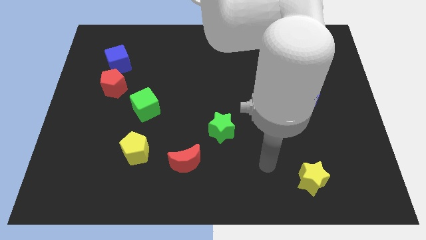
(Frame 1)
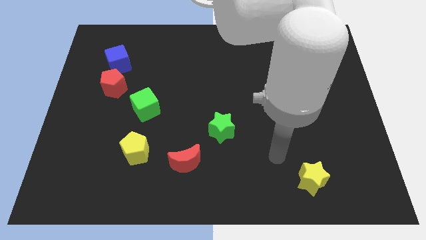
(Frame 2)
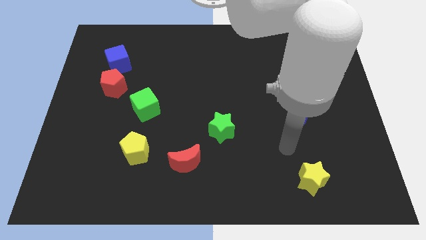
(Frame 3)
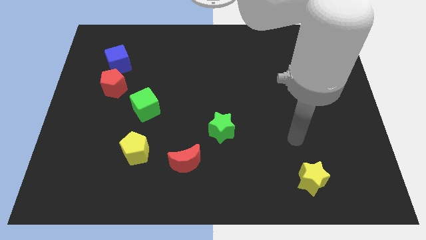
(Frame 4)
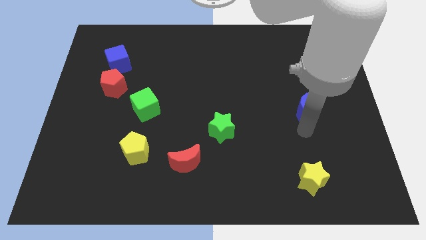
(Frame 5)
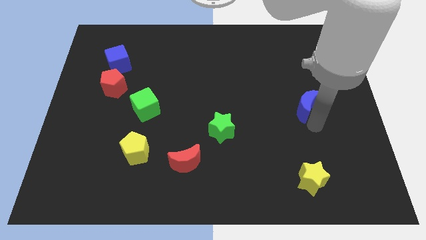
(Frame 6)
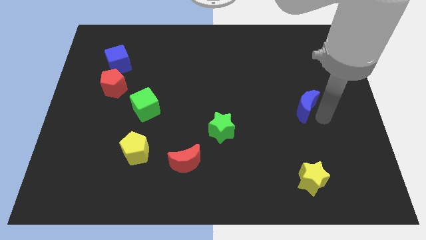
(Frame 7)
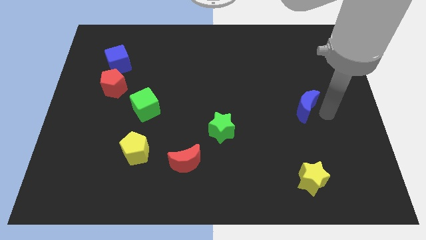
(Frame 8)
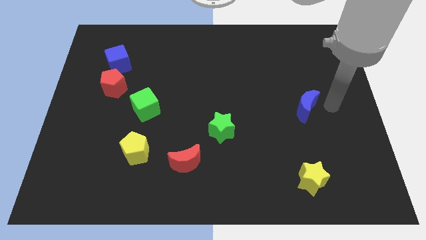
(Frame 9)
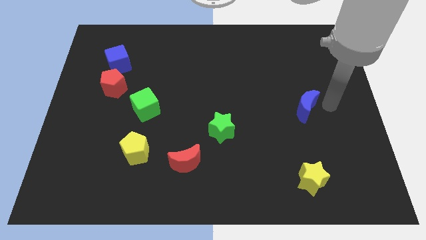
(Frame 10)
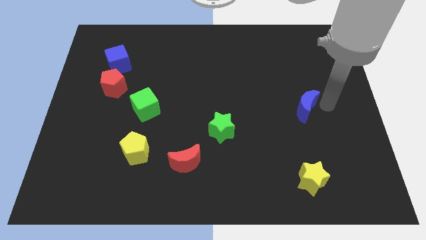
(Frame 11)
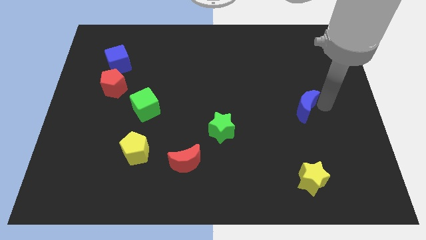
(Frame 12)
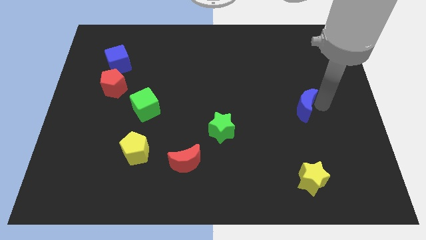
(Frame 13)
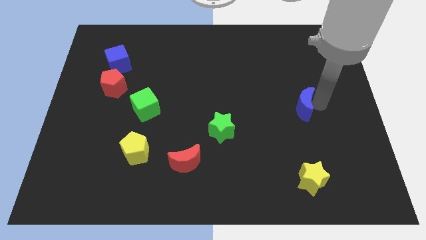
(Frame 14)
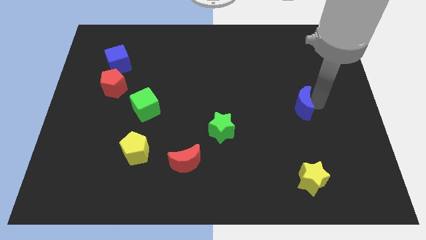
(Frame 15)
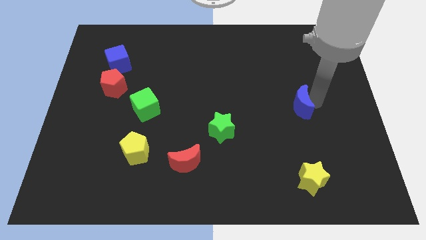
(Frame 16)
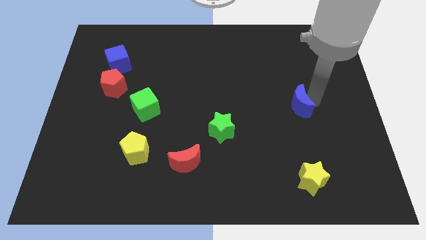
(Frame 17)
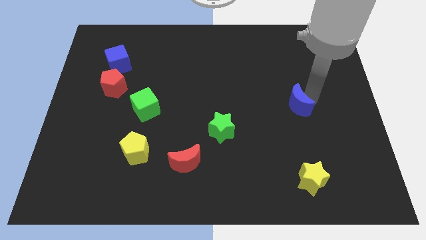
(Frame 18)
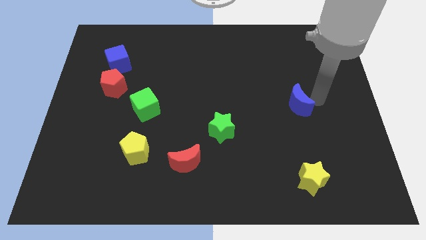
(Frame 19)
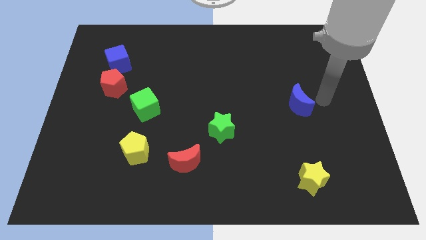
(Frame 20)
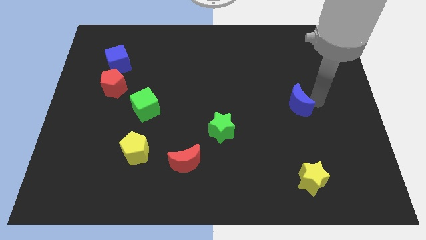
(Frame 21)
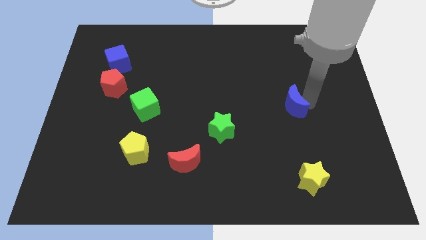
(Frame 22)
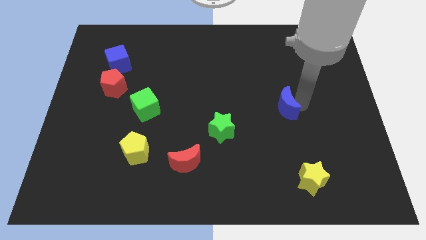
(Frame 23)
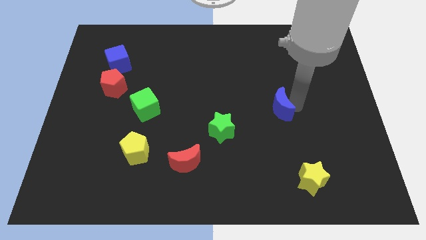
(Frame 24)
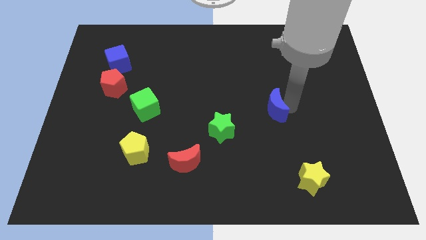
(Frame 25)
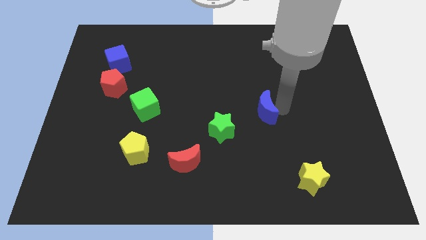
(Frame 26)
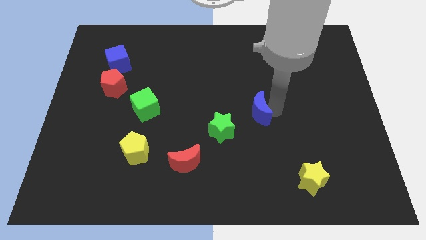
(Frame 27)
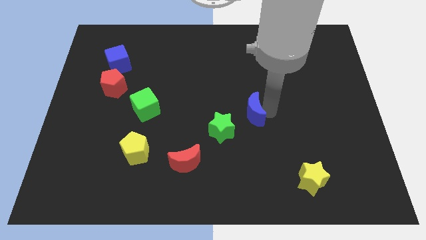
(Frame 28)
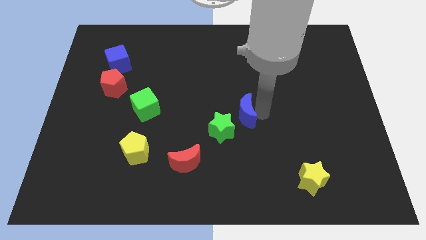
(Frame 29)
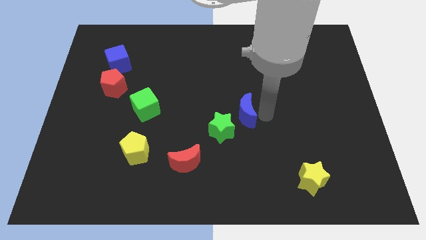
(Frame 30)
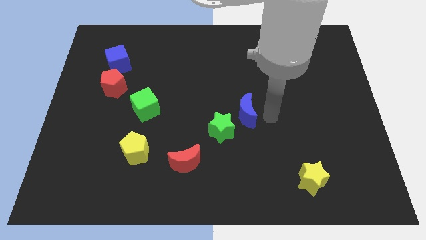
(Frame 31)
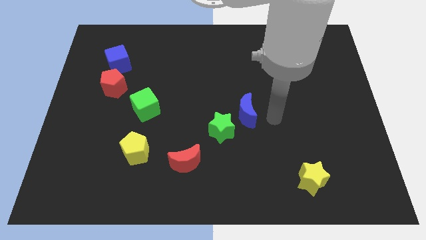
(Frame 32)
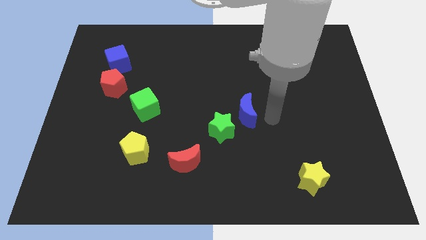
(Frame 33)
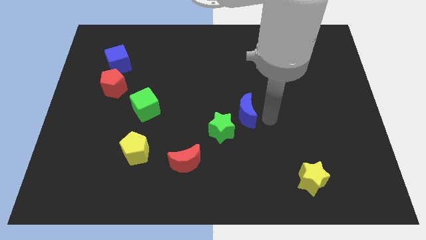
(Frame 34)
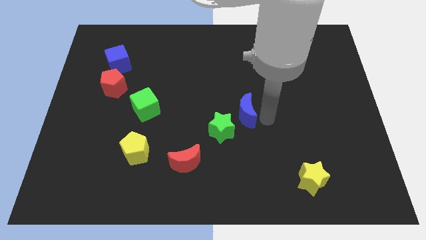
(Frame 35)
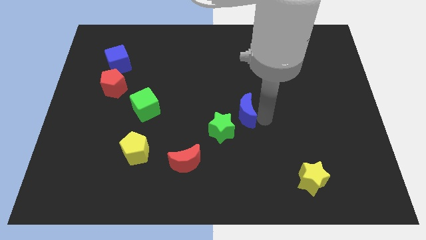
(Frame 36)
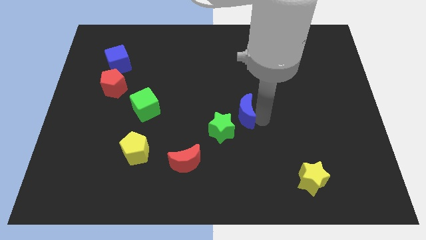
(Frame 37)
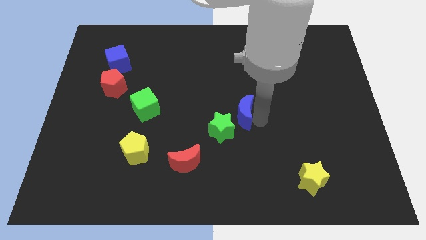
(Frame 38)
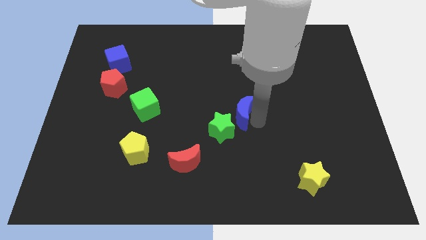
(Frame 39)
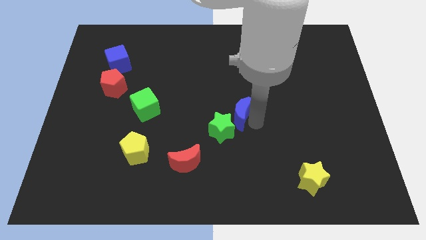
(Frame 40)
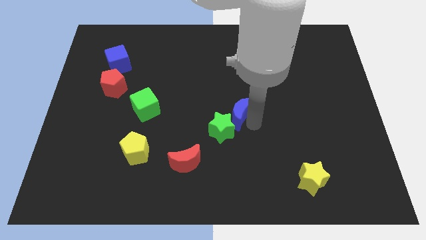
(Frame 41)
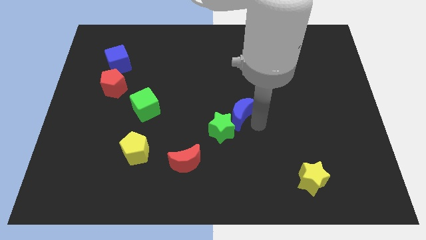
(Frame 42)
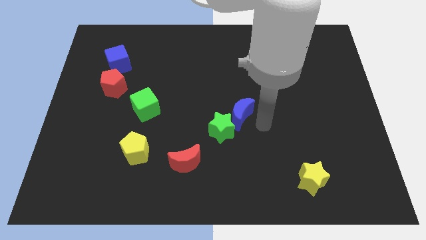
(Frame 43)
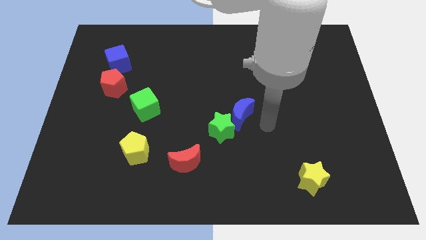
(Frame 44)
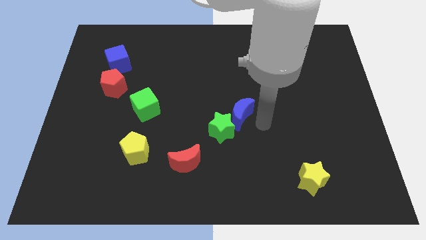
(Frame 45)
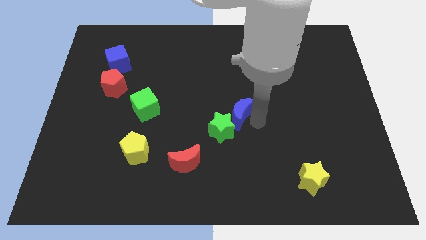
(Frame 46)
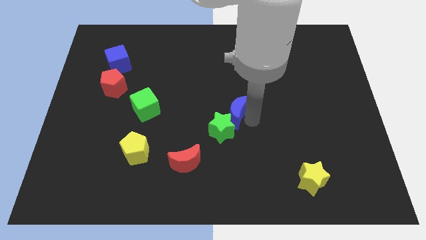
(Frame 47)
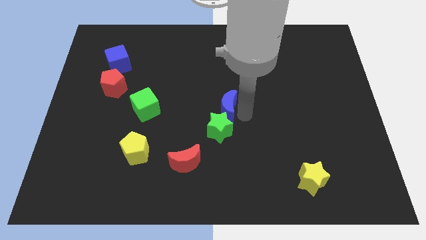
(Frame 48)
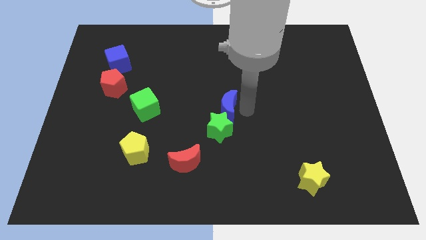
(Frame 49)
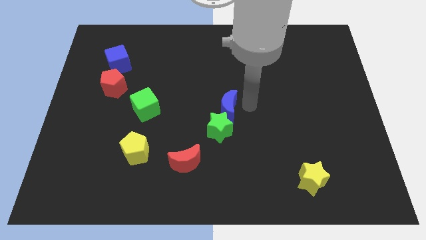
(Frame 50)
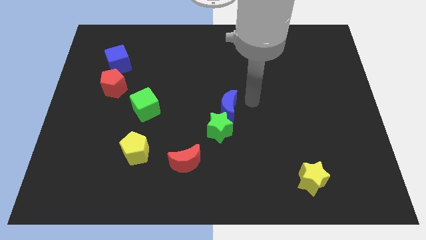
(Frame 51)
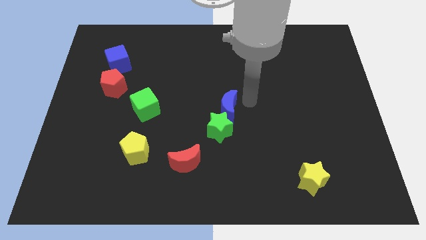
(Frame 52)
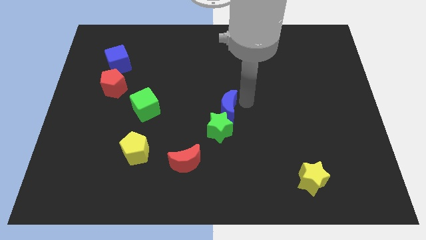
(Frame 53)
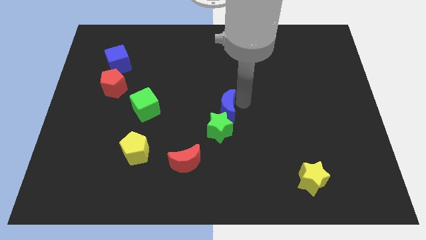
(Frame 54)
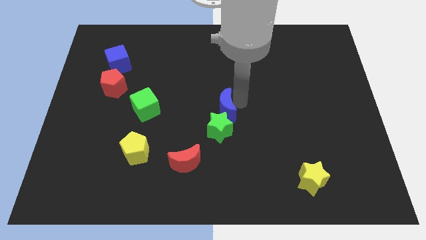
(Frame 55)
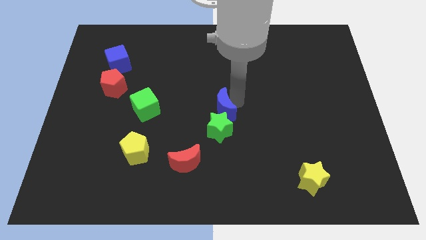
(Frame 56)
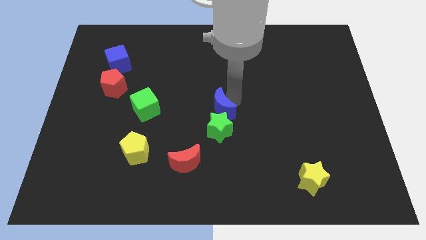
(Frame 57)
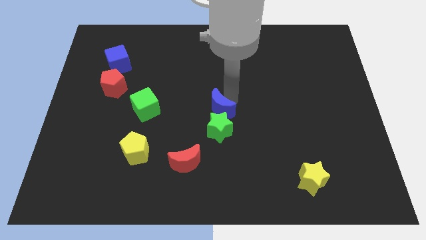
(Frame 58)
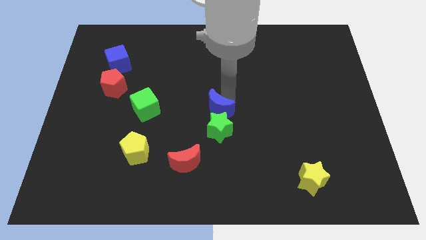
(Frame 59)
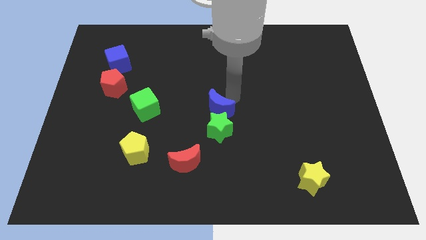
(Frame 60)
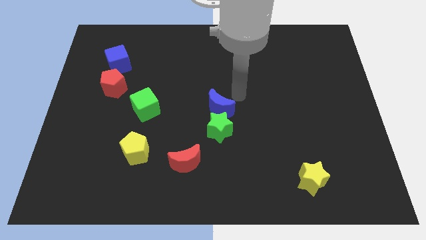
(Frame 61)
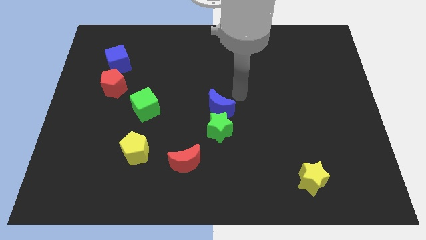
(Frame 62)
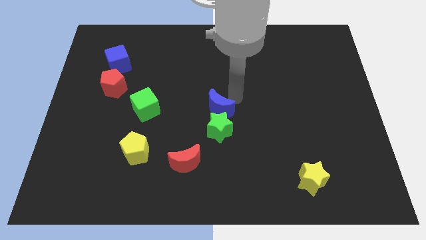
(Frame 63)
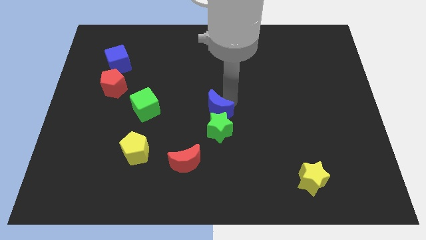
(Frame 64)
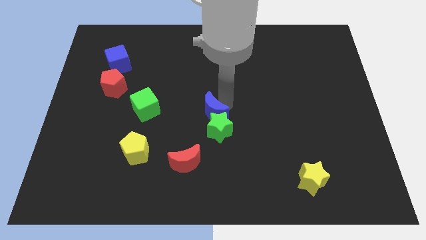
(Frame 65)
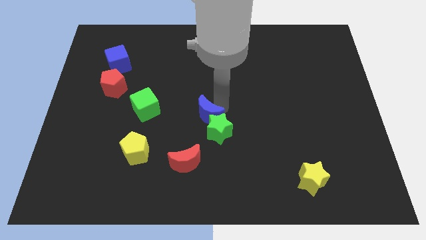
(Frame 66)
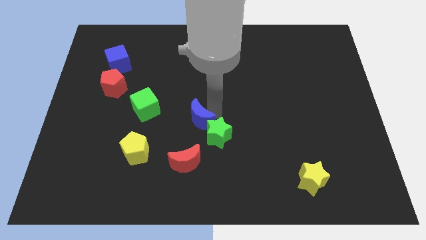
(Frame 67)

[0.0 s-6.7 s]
put the blue moon to the left of the green star

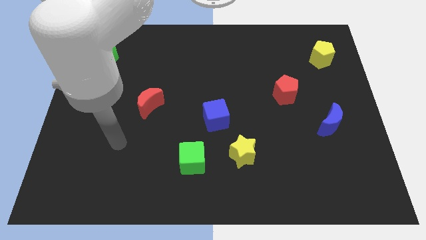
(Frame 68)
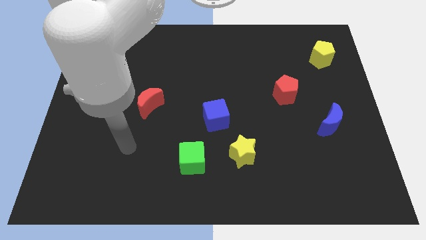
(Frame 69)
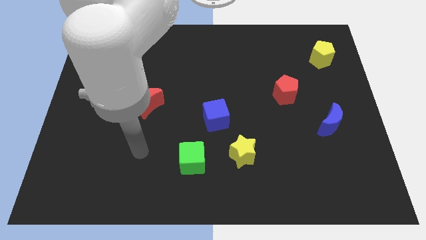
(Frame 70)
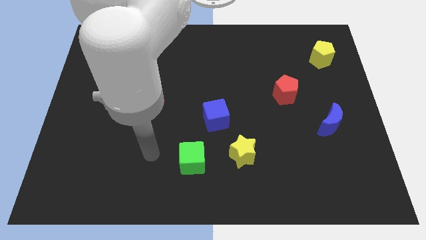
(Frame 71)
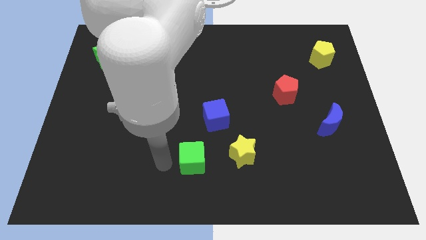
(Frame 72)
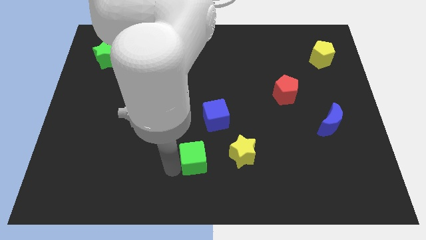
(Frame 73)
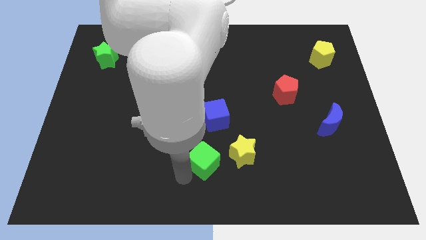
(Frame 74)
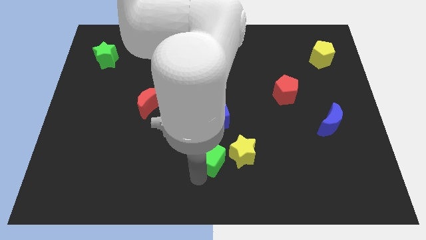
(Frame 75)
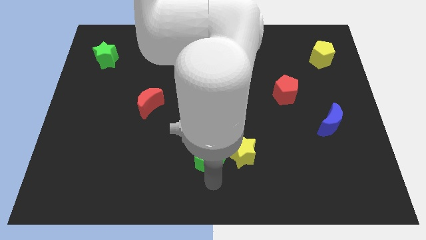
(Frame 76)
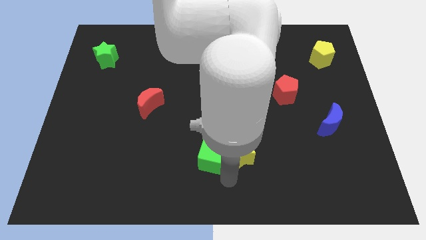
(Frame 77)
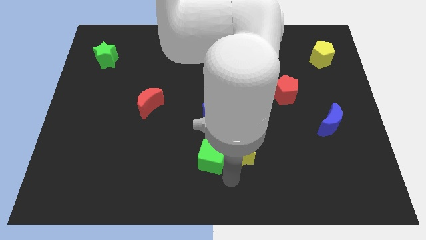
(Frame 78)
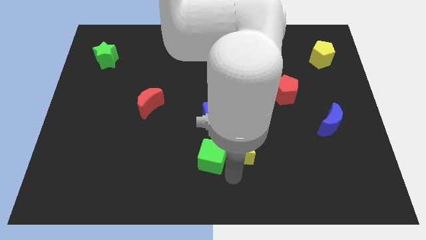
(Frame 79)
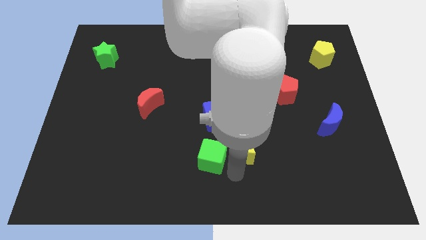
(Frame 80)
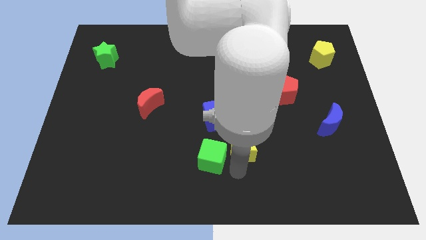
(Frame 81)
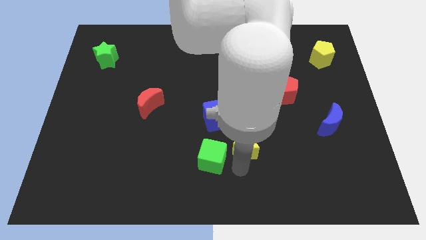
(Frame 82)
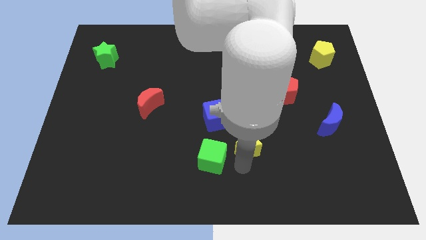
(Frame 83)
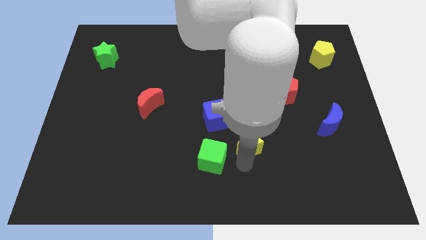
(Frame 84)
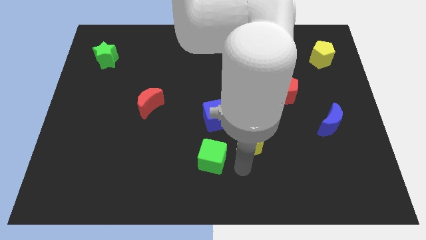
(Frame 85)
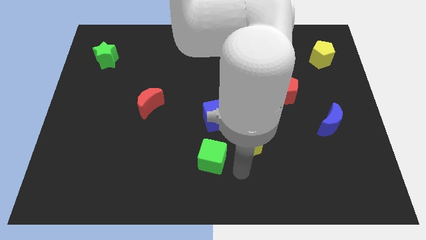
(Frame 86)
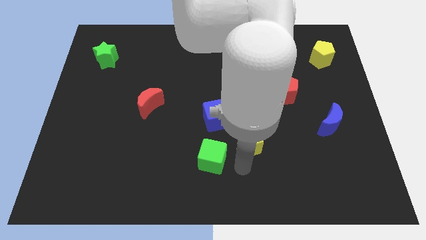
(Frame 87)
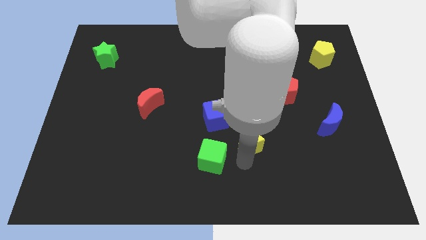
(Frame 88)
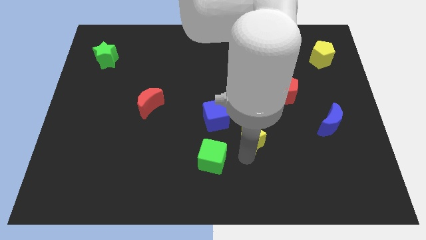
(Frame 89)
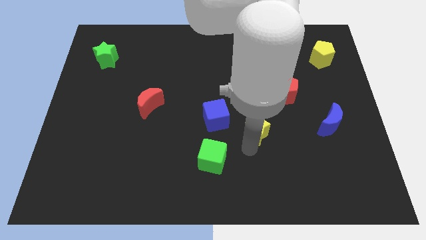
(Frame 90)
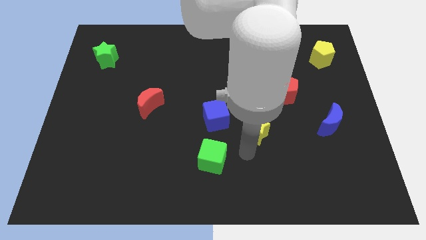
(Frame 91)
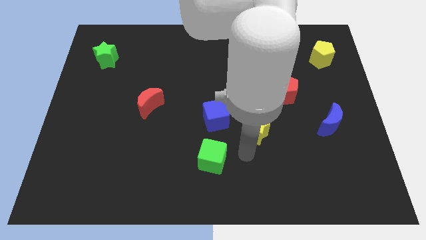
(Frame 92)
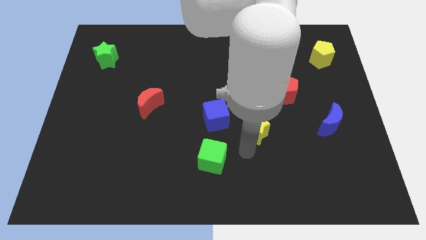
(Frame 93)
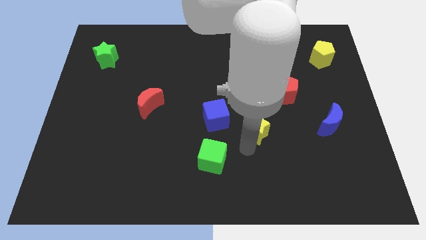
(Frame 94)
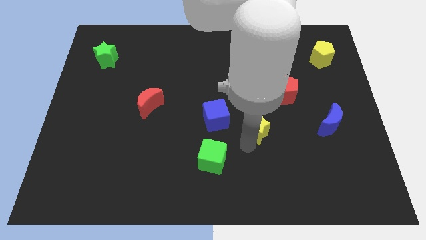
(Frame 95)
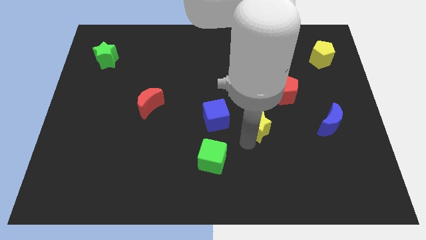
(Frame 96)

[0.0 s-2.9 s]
put the yellow star diagonally down and to the left of the red pentagon
